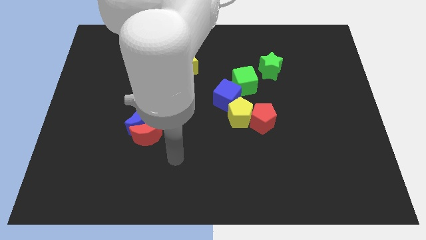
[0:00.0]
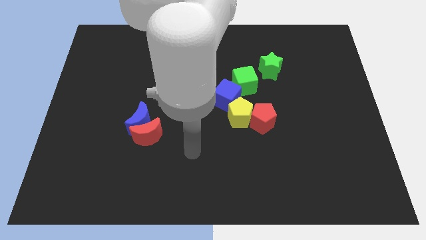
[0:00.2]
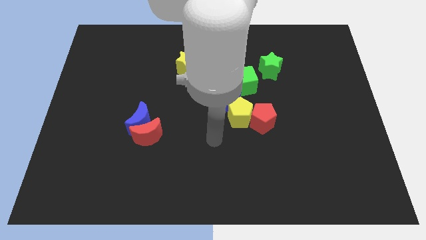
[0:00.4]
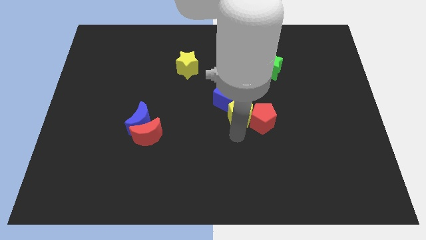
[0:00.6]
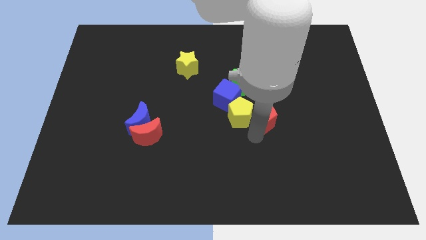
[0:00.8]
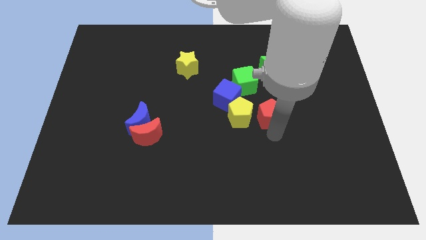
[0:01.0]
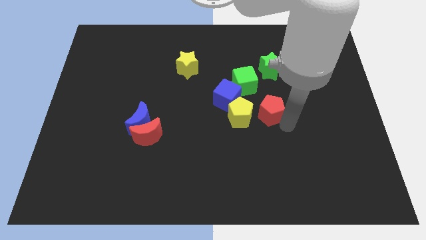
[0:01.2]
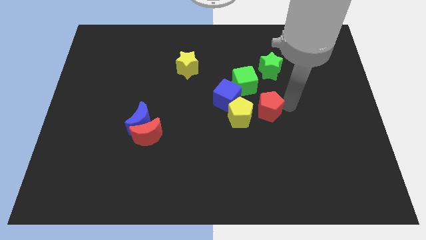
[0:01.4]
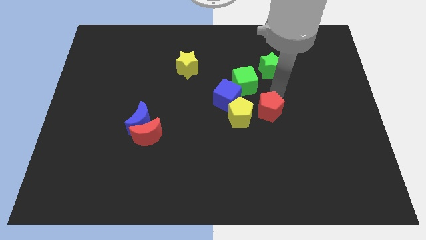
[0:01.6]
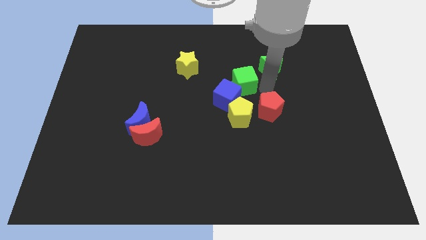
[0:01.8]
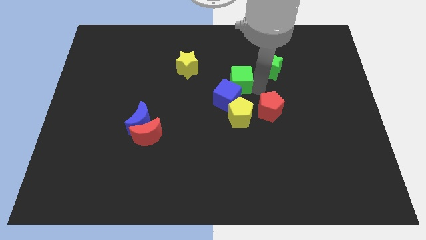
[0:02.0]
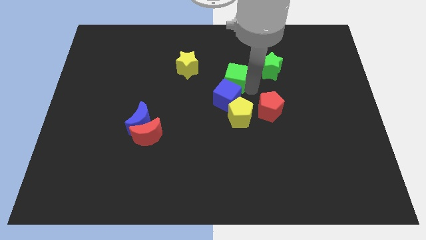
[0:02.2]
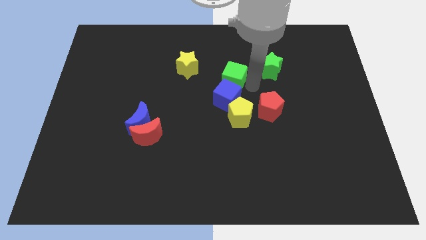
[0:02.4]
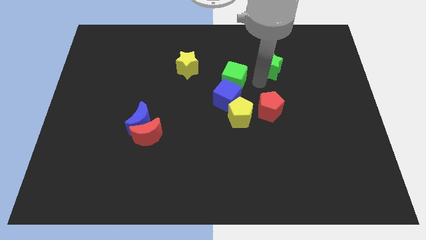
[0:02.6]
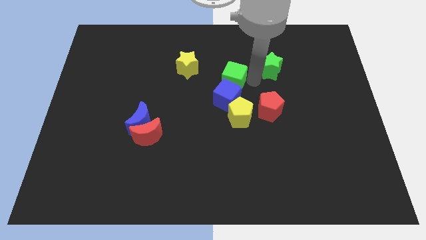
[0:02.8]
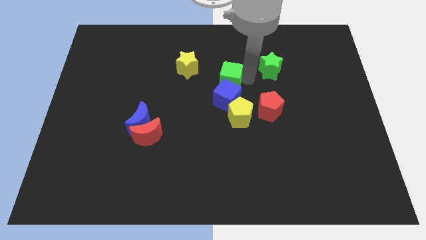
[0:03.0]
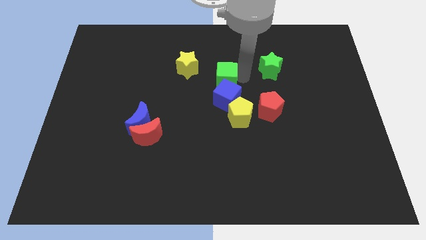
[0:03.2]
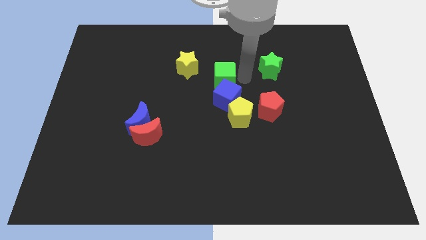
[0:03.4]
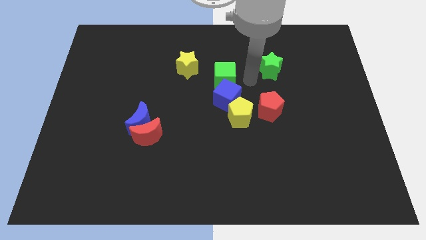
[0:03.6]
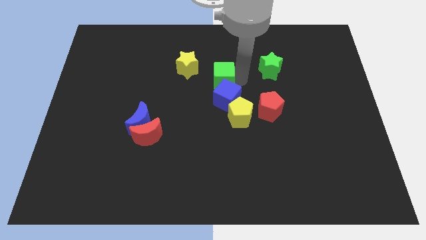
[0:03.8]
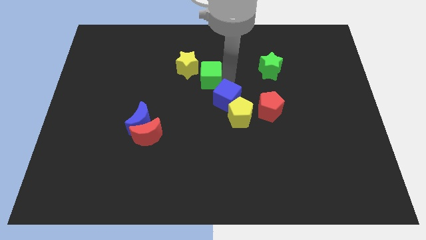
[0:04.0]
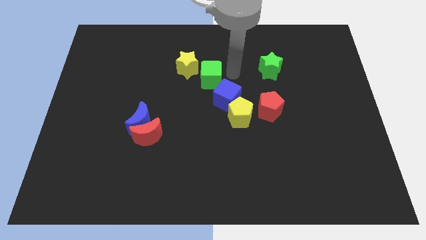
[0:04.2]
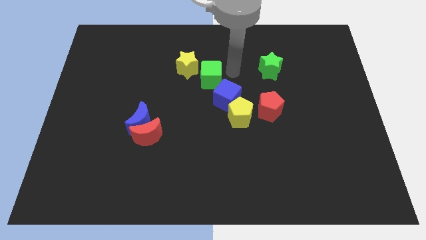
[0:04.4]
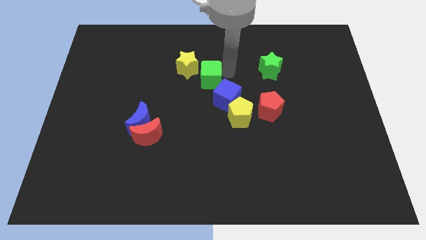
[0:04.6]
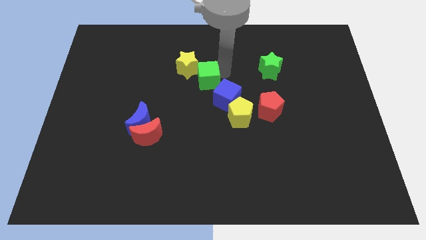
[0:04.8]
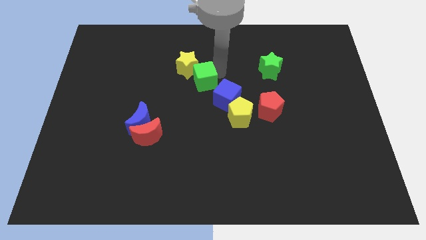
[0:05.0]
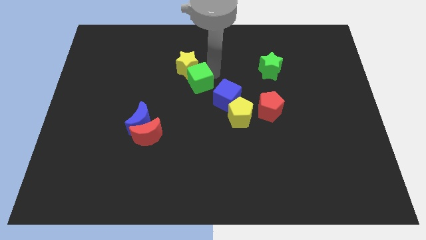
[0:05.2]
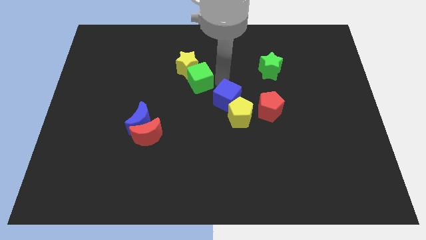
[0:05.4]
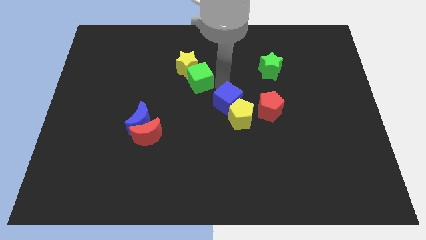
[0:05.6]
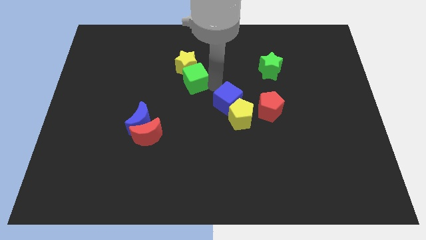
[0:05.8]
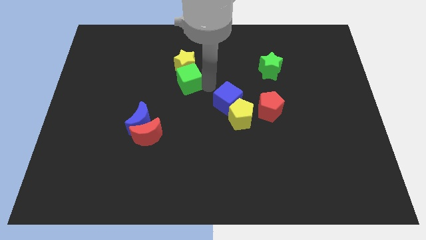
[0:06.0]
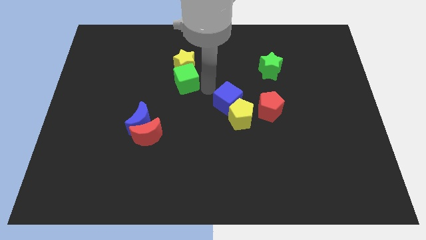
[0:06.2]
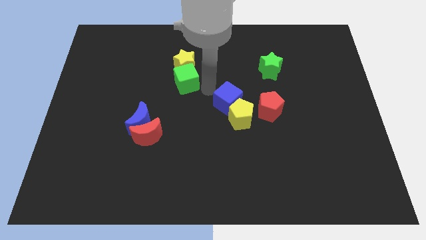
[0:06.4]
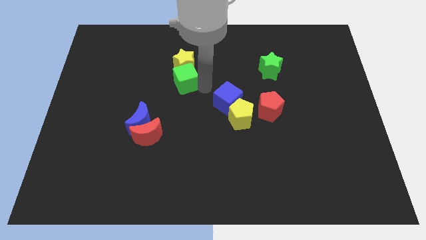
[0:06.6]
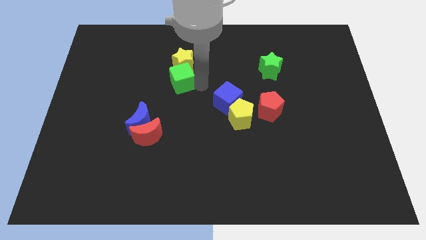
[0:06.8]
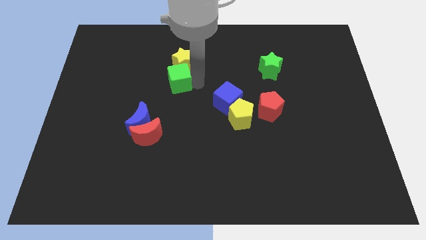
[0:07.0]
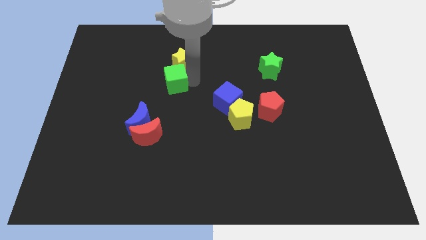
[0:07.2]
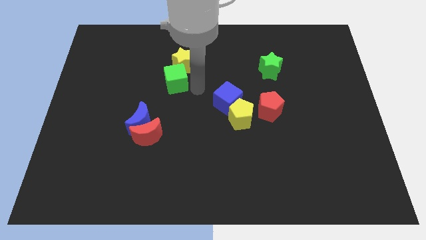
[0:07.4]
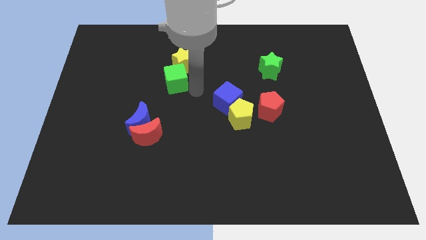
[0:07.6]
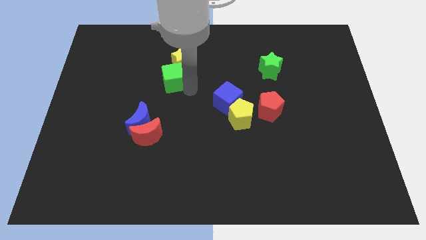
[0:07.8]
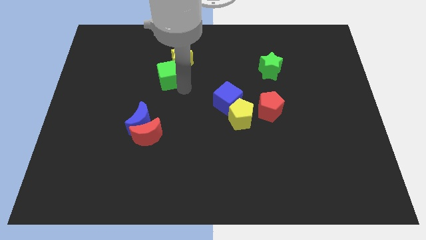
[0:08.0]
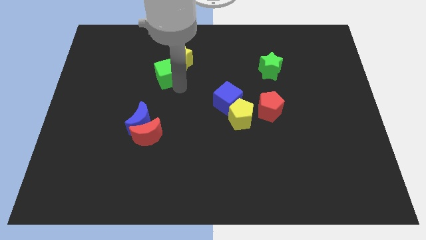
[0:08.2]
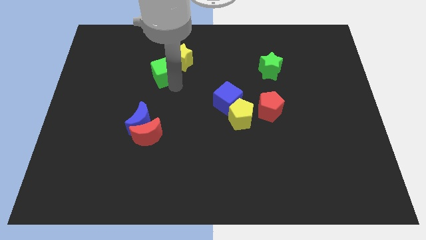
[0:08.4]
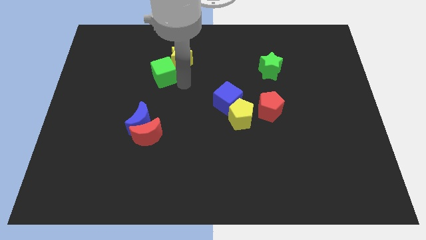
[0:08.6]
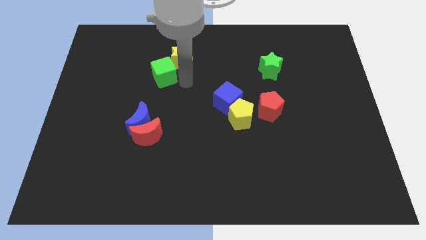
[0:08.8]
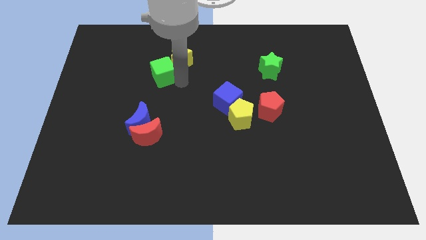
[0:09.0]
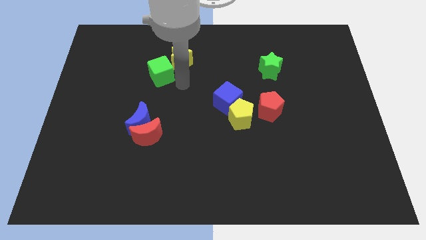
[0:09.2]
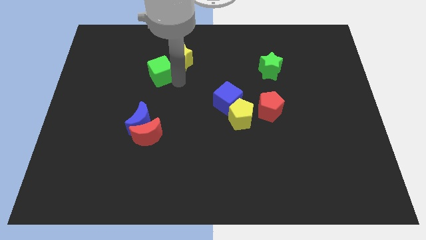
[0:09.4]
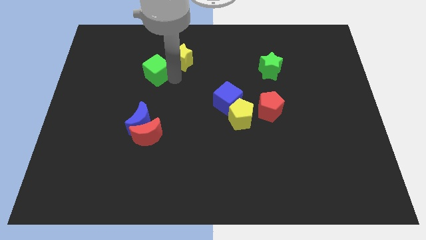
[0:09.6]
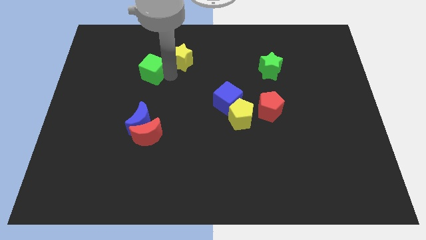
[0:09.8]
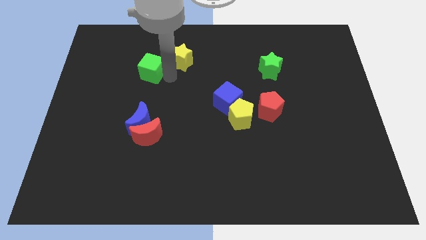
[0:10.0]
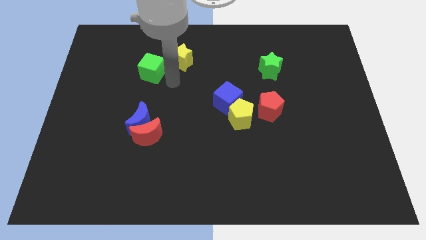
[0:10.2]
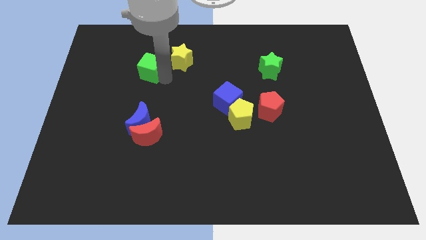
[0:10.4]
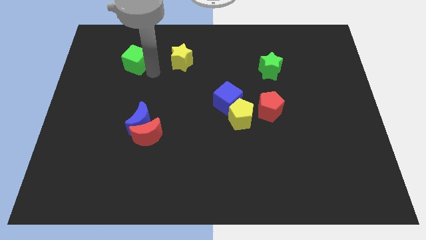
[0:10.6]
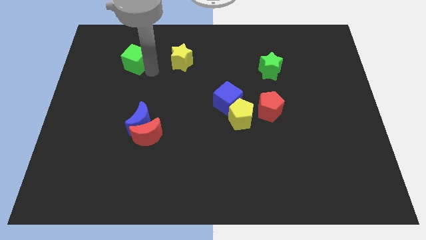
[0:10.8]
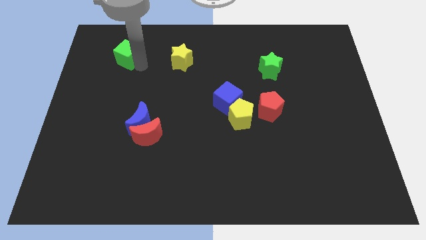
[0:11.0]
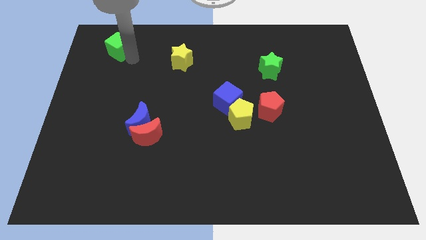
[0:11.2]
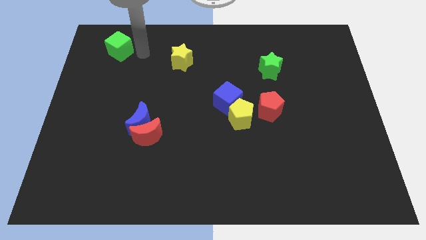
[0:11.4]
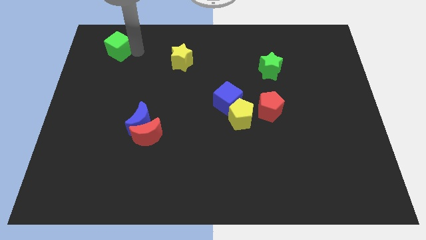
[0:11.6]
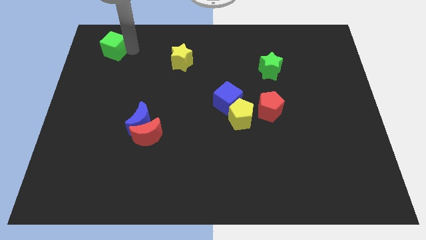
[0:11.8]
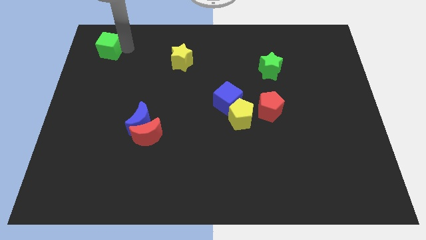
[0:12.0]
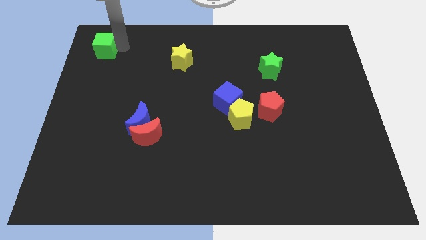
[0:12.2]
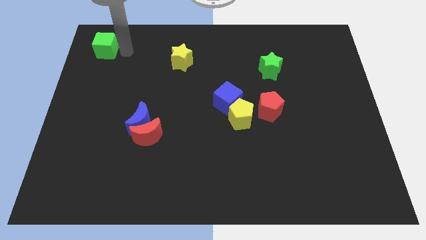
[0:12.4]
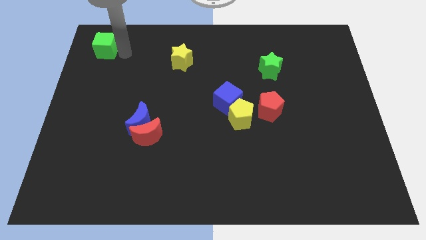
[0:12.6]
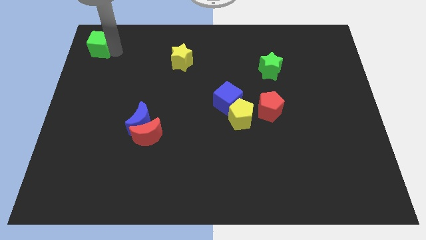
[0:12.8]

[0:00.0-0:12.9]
put the green cube to the upper left corner
